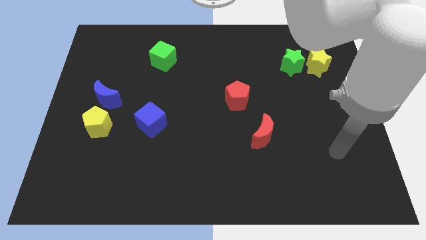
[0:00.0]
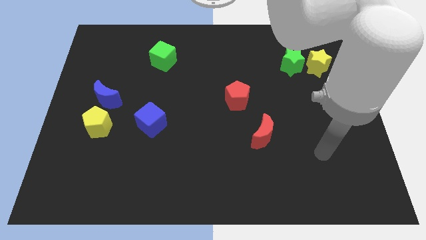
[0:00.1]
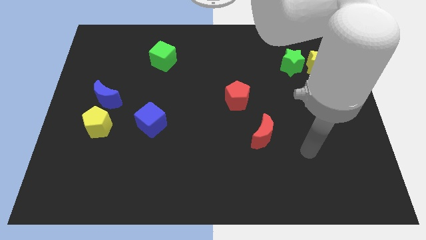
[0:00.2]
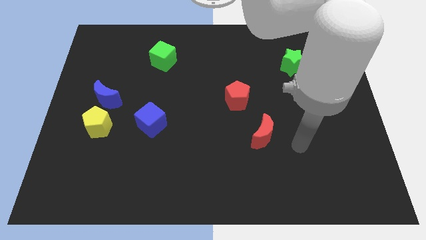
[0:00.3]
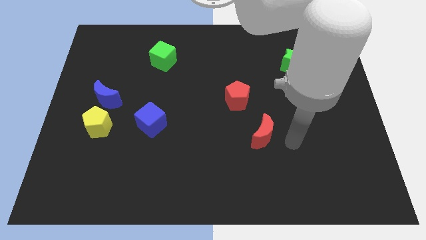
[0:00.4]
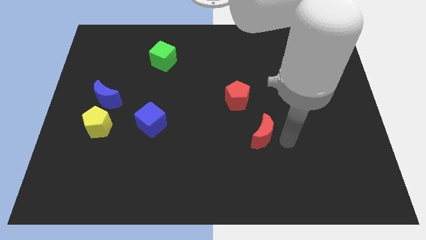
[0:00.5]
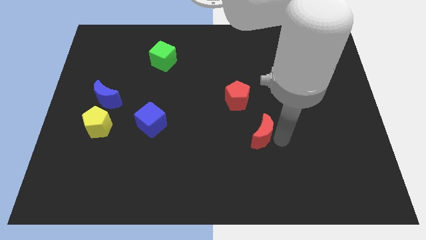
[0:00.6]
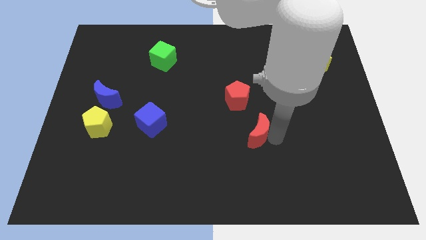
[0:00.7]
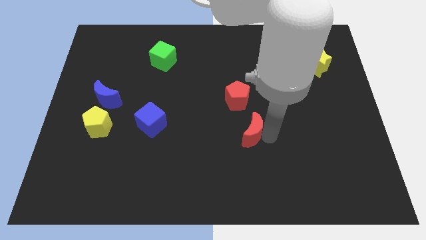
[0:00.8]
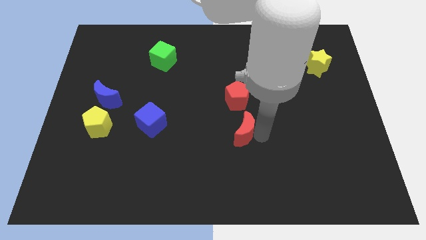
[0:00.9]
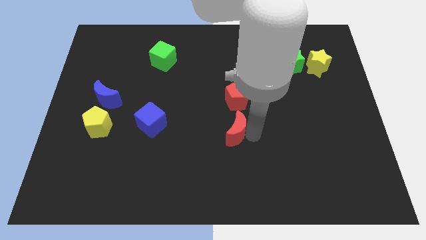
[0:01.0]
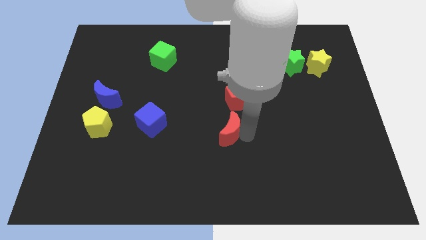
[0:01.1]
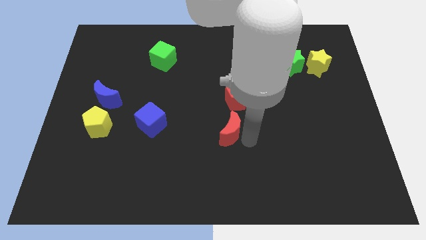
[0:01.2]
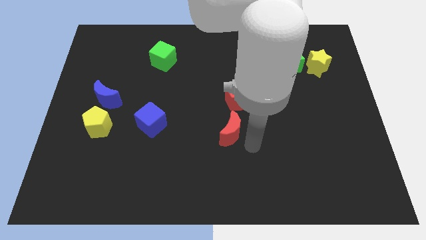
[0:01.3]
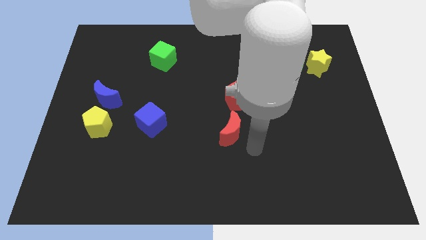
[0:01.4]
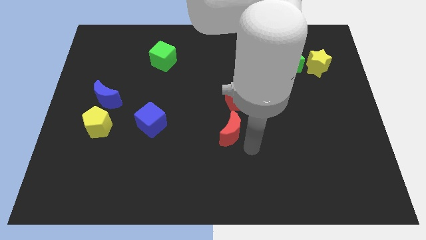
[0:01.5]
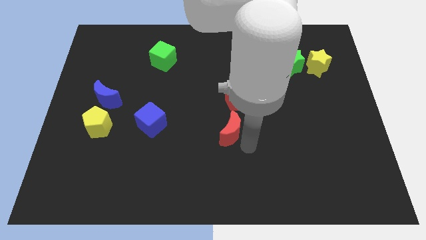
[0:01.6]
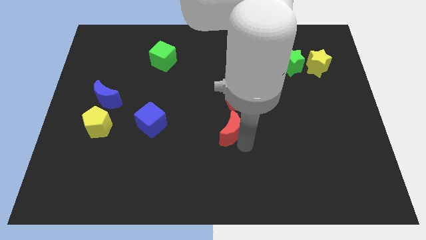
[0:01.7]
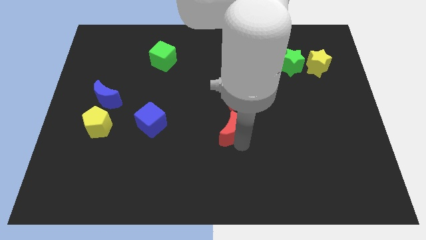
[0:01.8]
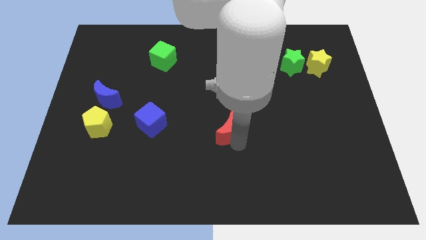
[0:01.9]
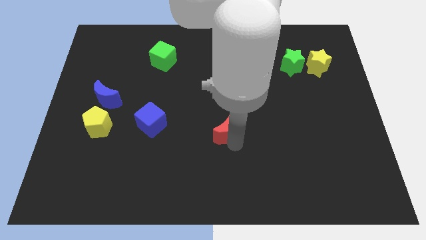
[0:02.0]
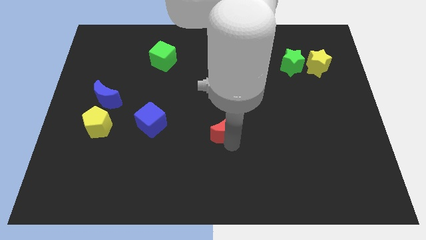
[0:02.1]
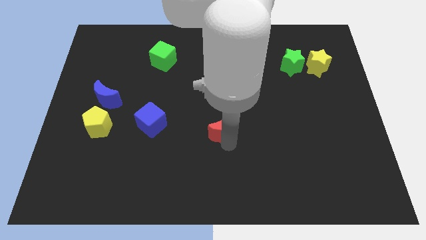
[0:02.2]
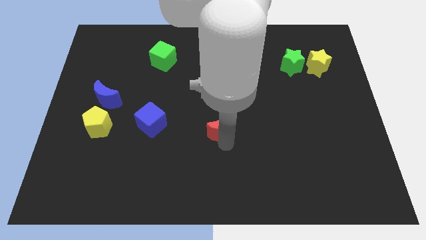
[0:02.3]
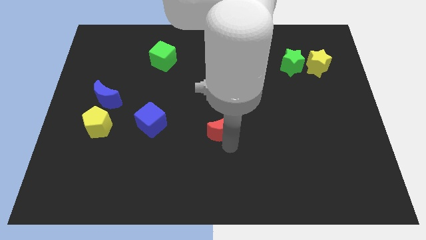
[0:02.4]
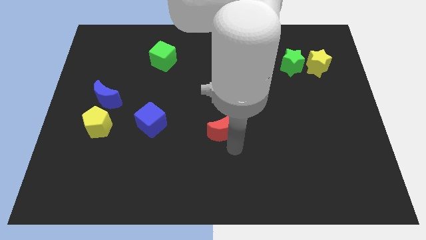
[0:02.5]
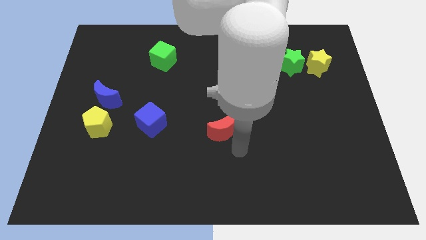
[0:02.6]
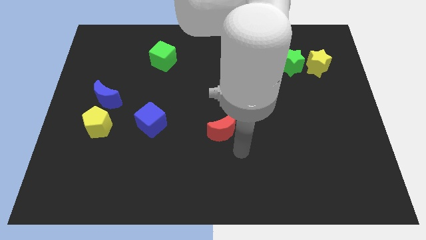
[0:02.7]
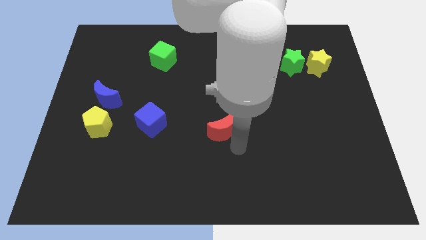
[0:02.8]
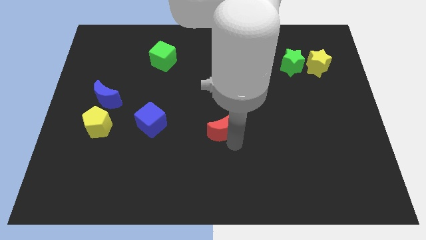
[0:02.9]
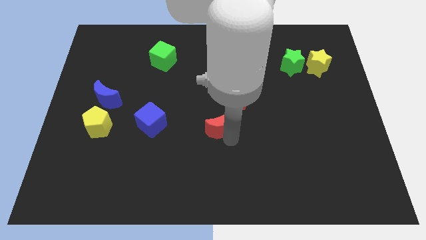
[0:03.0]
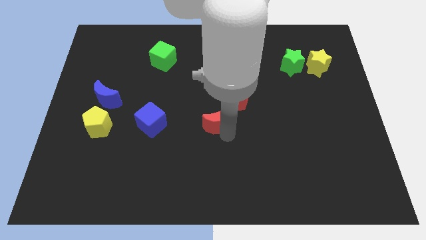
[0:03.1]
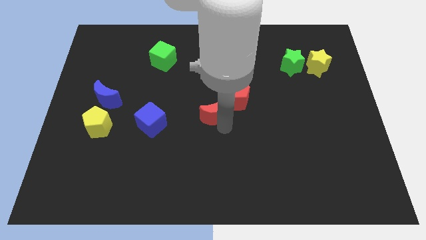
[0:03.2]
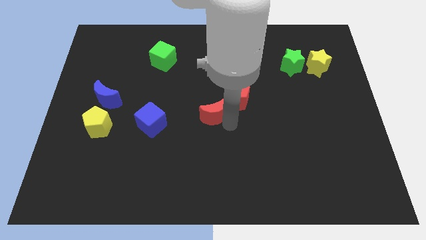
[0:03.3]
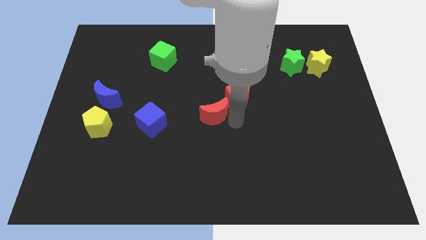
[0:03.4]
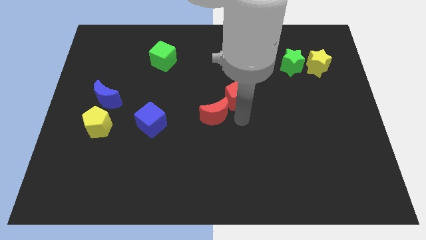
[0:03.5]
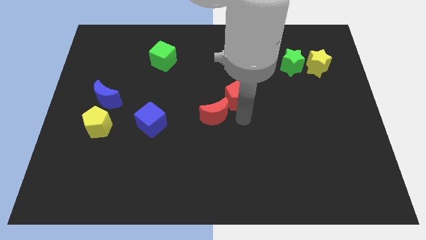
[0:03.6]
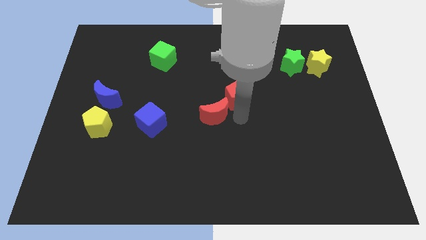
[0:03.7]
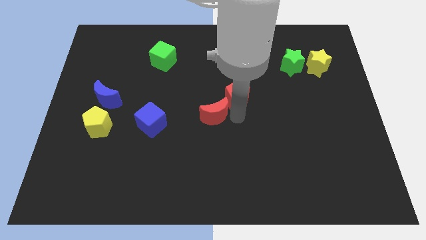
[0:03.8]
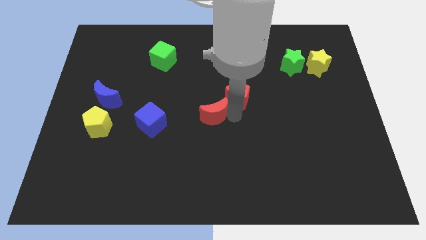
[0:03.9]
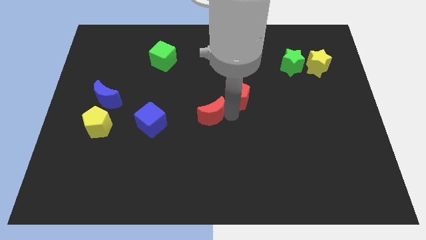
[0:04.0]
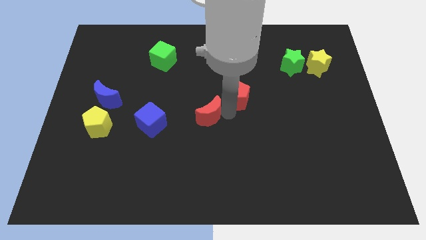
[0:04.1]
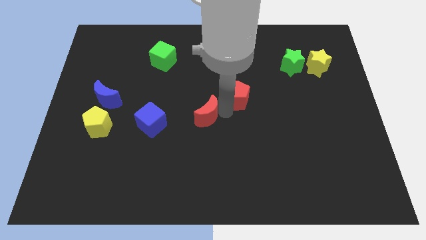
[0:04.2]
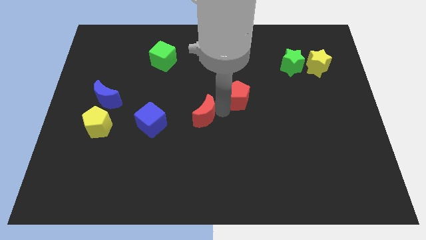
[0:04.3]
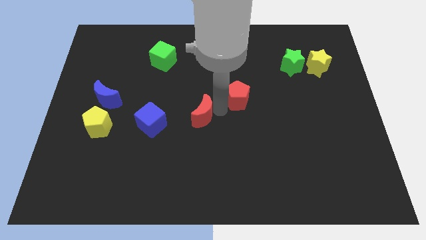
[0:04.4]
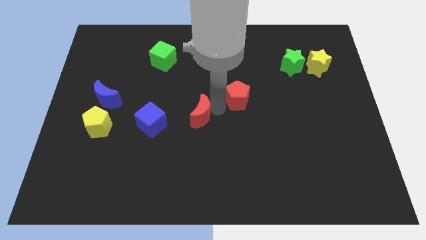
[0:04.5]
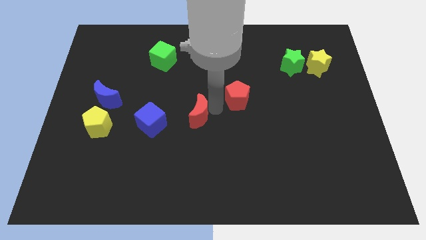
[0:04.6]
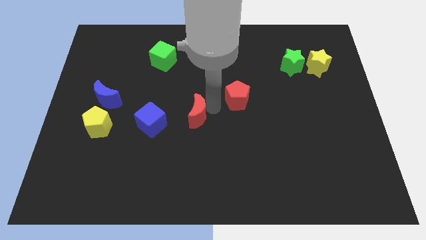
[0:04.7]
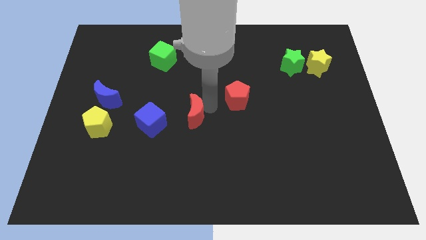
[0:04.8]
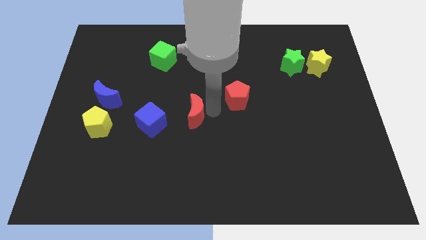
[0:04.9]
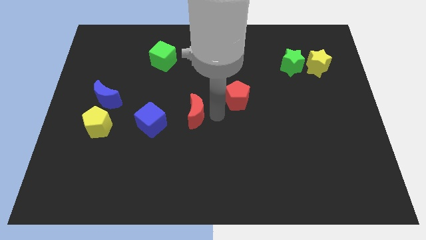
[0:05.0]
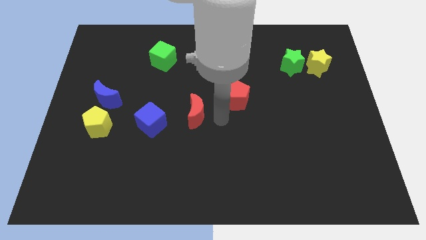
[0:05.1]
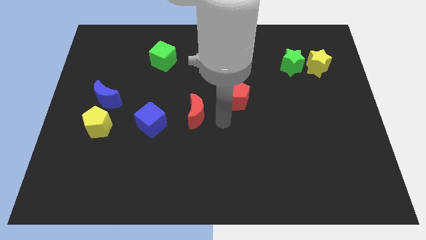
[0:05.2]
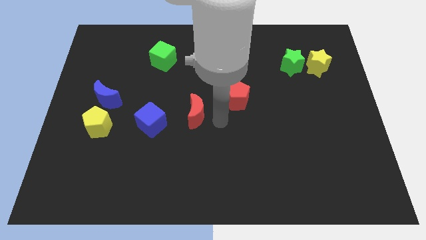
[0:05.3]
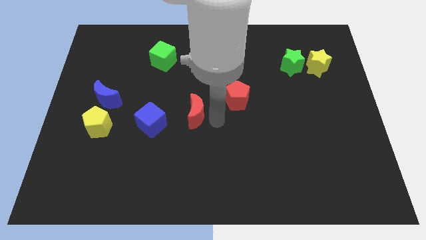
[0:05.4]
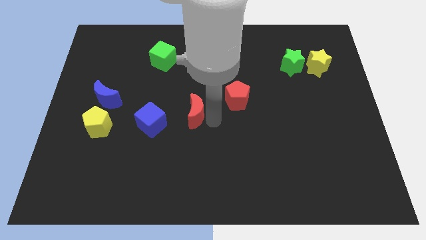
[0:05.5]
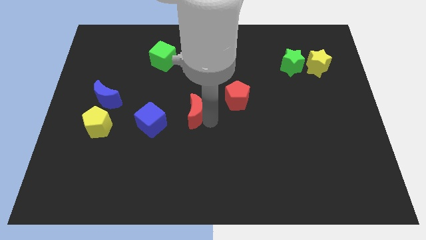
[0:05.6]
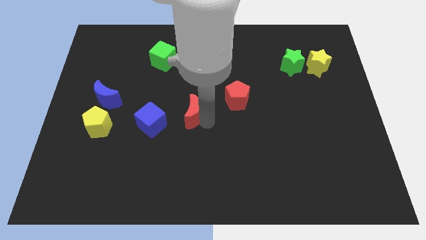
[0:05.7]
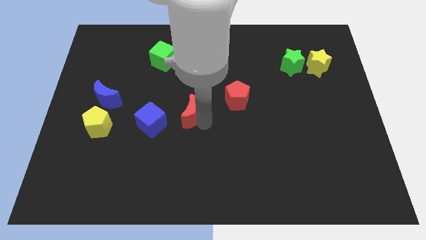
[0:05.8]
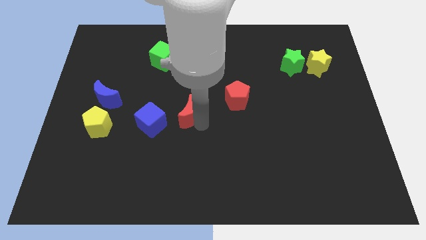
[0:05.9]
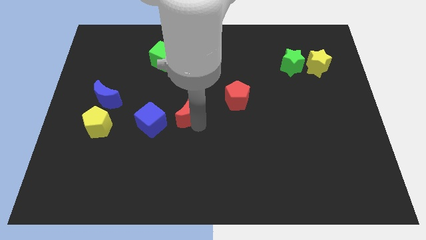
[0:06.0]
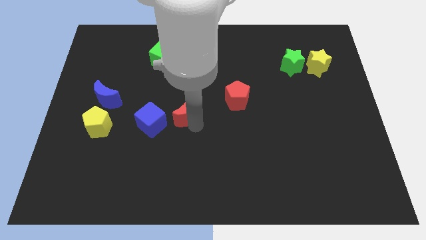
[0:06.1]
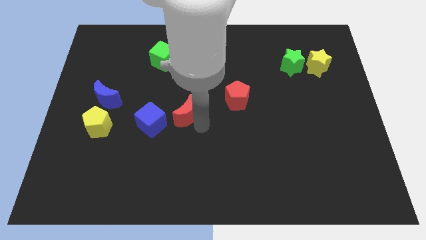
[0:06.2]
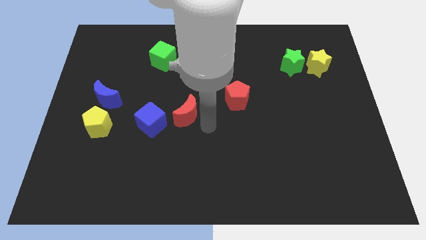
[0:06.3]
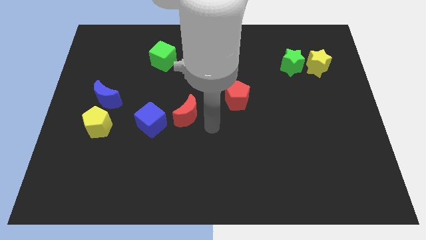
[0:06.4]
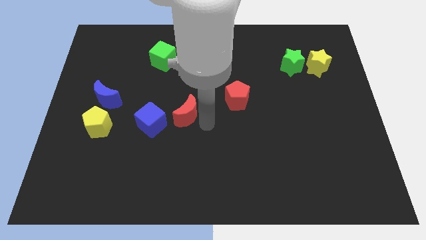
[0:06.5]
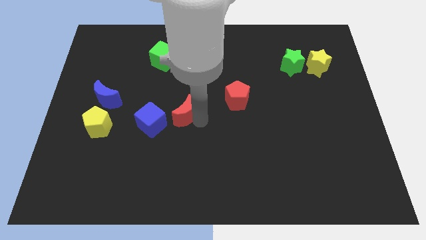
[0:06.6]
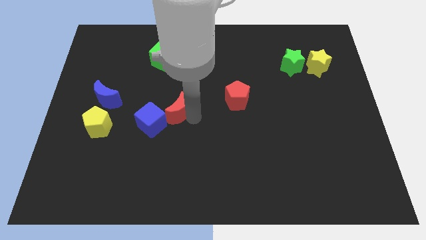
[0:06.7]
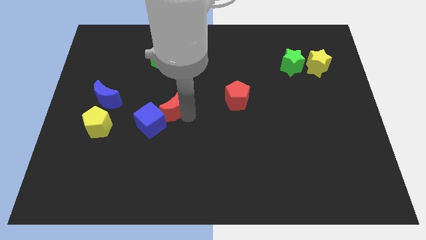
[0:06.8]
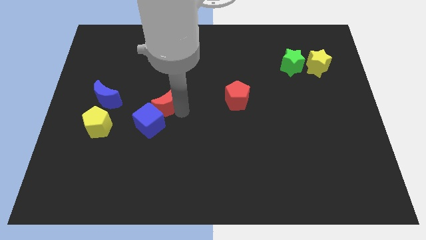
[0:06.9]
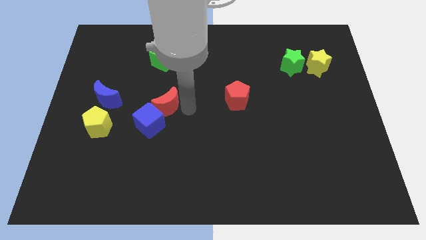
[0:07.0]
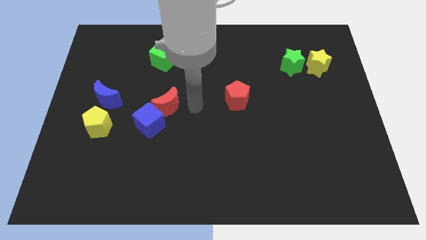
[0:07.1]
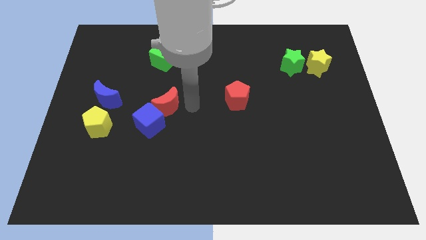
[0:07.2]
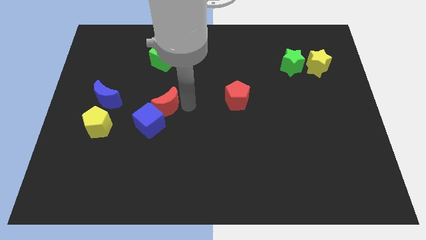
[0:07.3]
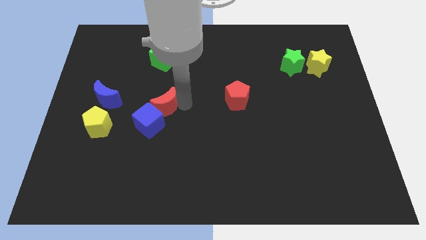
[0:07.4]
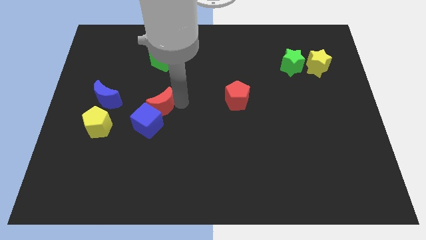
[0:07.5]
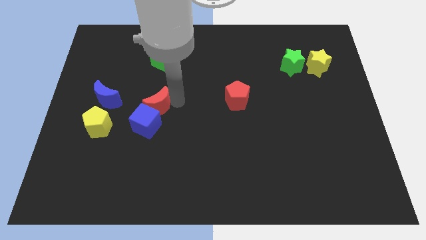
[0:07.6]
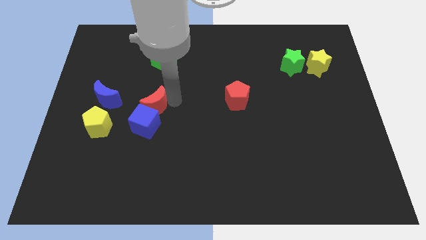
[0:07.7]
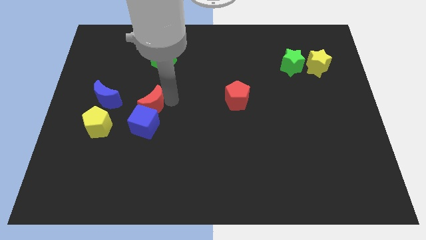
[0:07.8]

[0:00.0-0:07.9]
push the red moon to the top left of the blue cube
